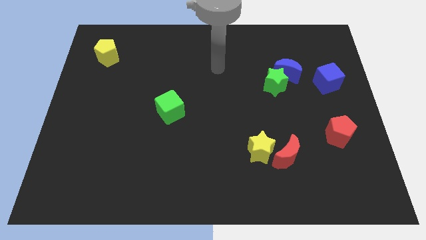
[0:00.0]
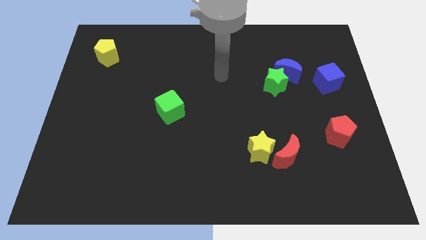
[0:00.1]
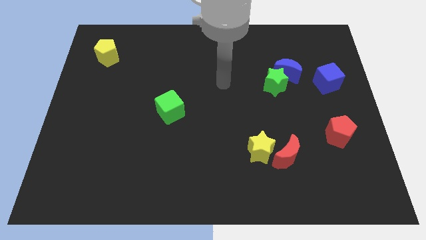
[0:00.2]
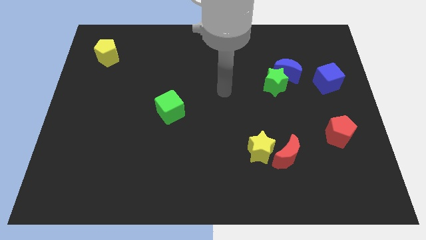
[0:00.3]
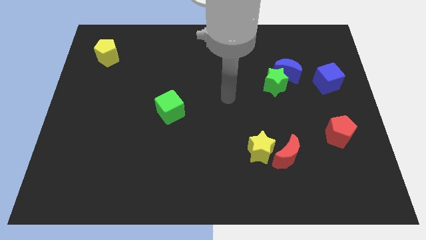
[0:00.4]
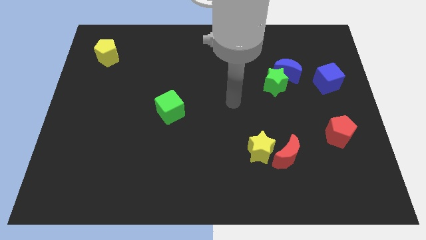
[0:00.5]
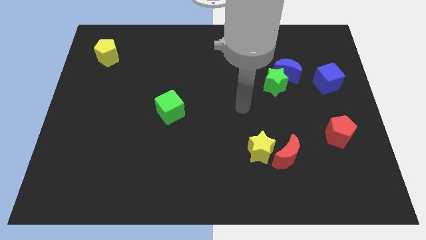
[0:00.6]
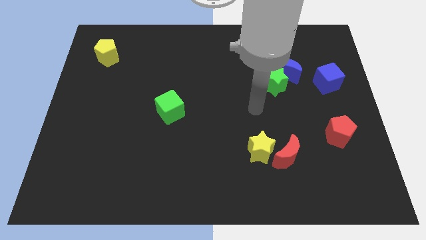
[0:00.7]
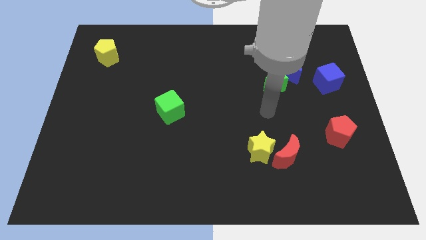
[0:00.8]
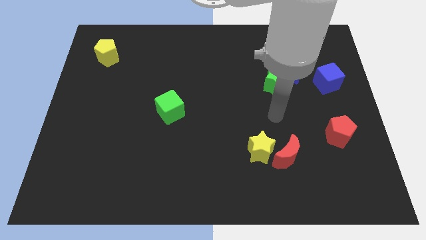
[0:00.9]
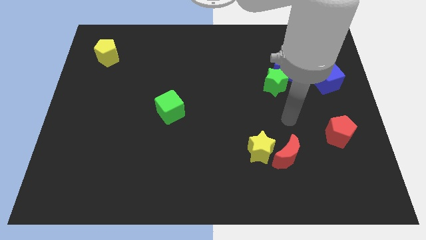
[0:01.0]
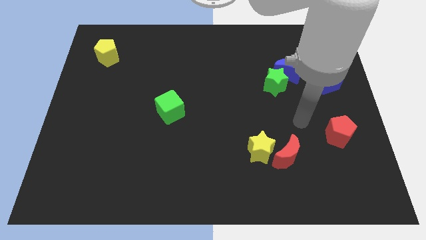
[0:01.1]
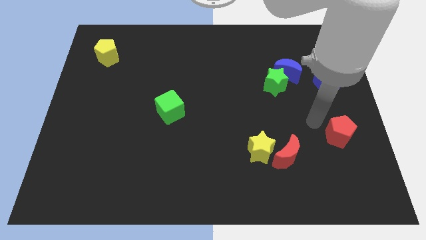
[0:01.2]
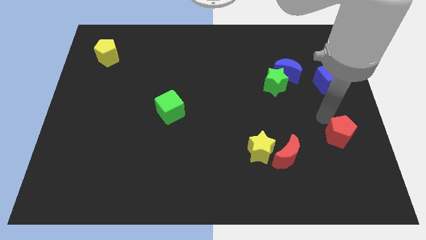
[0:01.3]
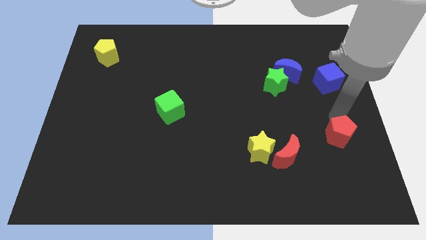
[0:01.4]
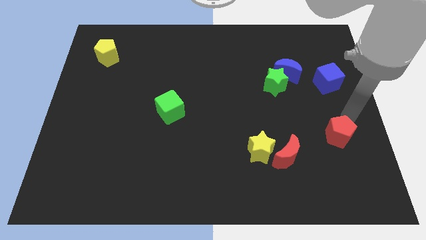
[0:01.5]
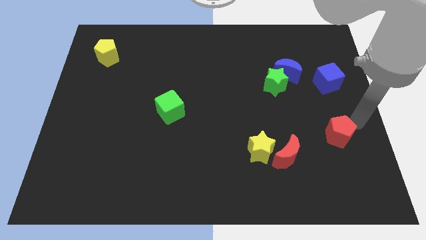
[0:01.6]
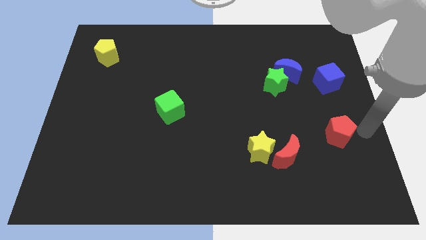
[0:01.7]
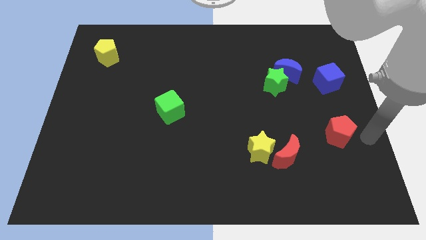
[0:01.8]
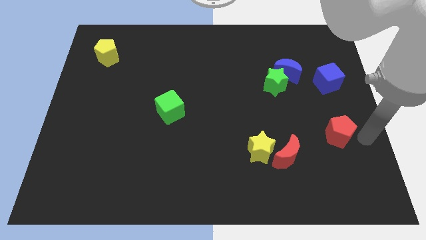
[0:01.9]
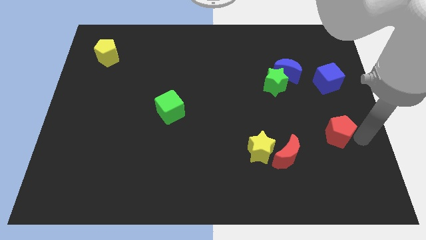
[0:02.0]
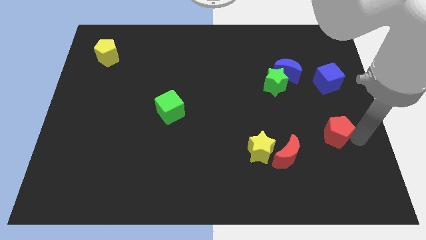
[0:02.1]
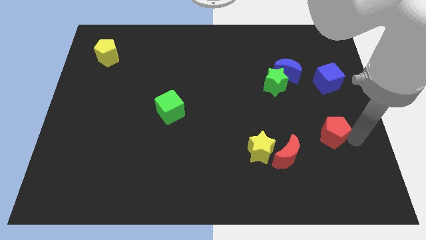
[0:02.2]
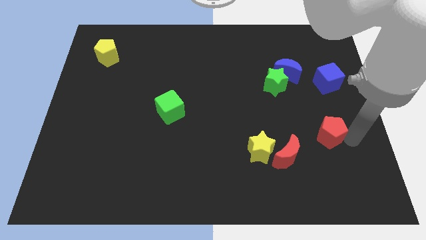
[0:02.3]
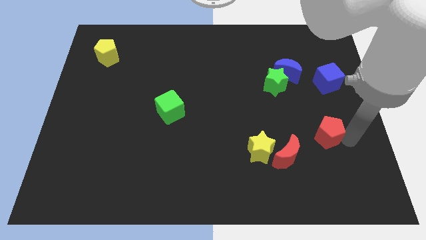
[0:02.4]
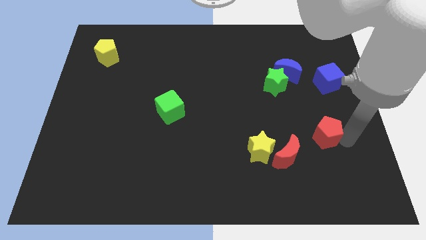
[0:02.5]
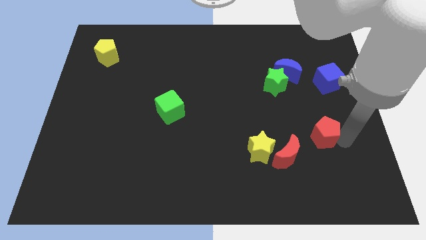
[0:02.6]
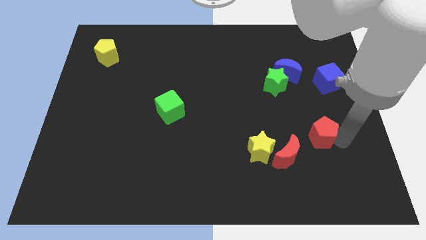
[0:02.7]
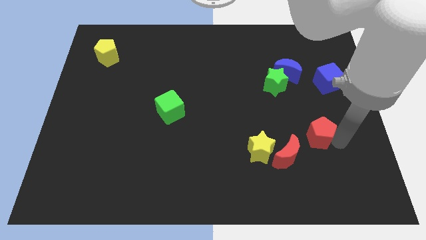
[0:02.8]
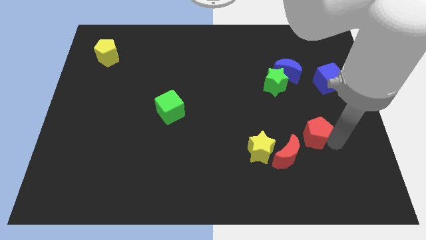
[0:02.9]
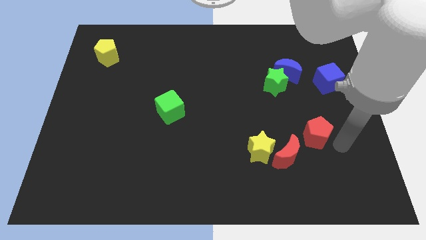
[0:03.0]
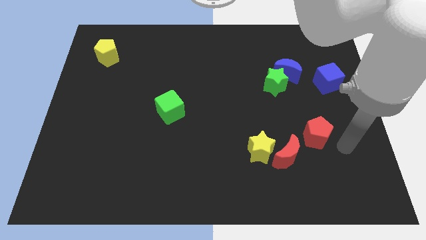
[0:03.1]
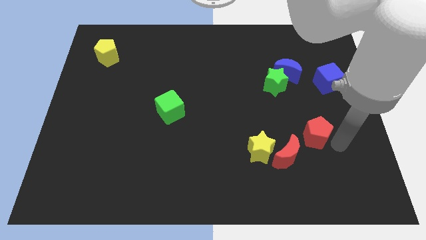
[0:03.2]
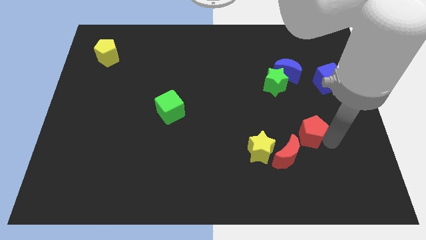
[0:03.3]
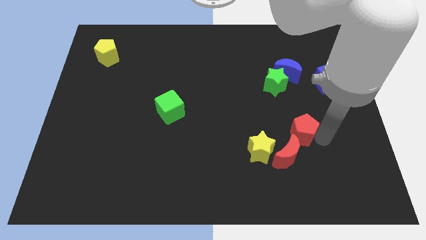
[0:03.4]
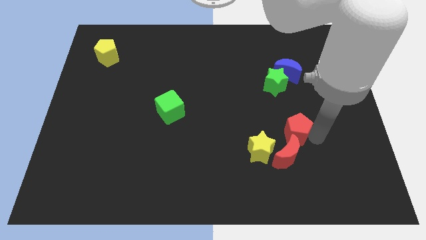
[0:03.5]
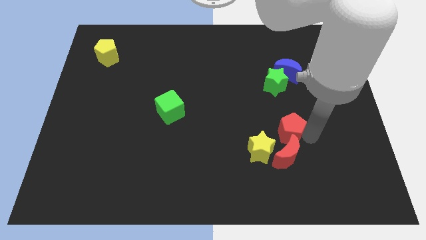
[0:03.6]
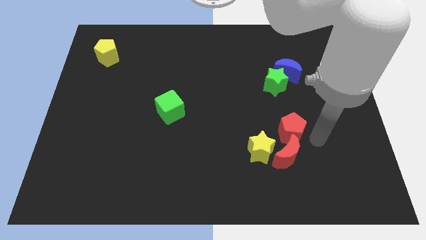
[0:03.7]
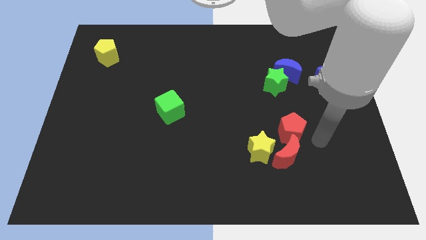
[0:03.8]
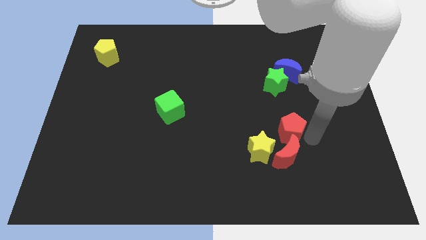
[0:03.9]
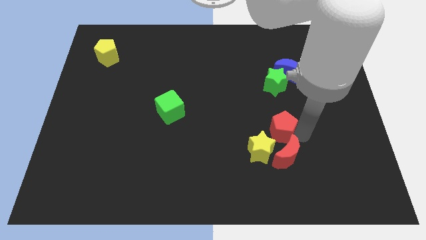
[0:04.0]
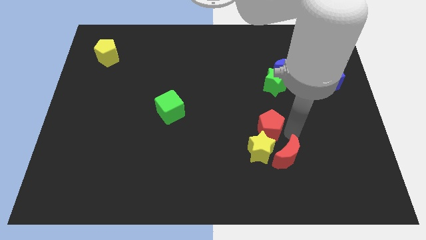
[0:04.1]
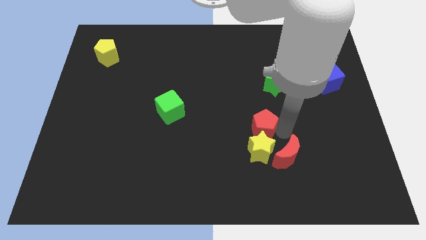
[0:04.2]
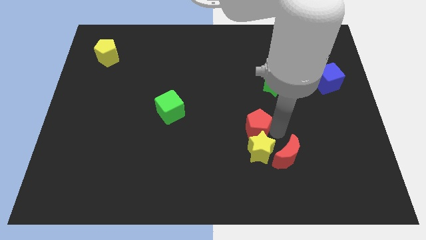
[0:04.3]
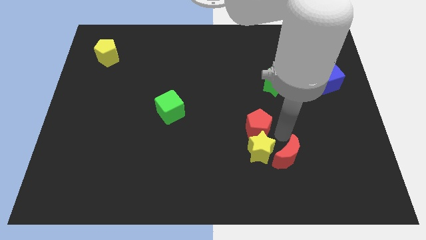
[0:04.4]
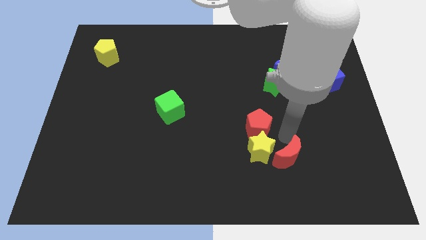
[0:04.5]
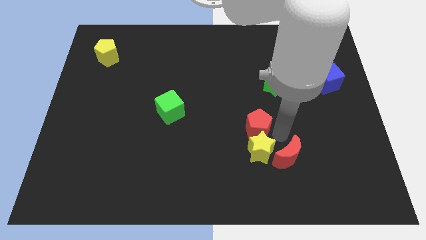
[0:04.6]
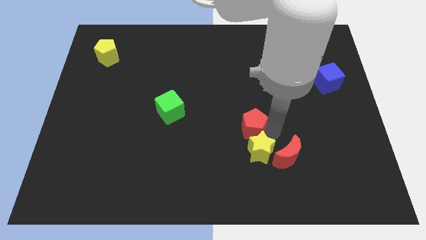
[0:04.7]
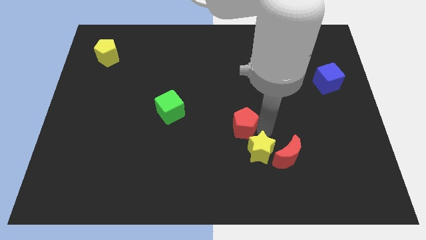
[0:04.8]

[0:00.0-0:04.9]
push the red pentagon left

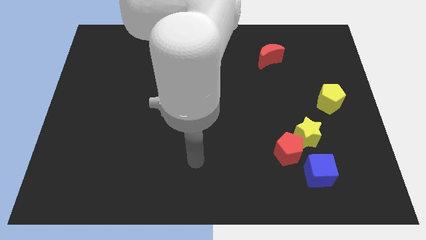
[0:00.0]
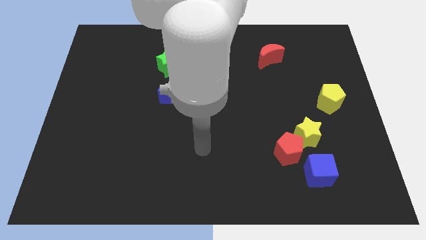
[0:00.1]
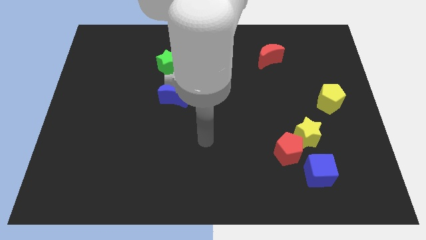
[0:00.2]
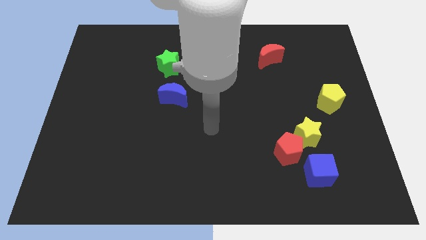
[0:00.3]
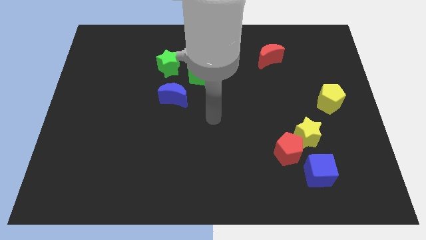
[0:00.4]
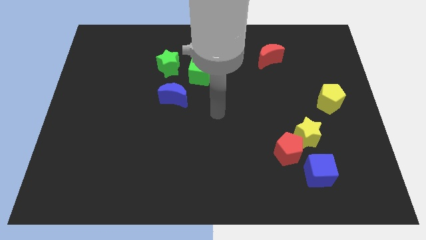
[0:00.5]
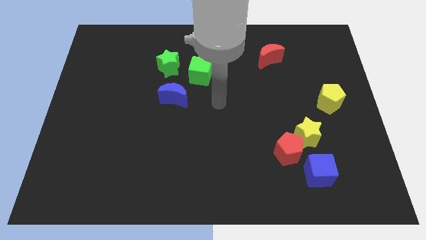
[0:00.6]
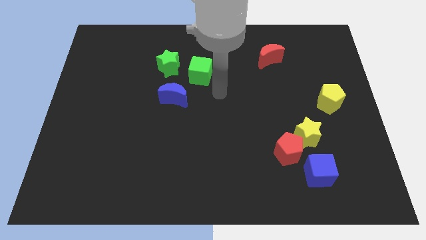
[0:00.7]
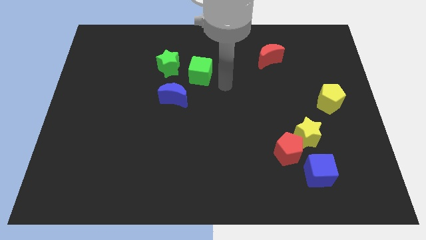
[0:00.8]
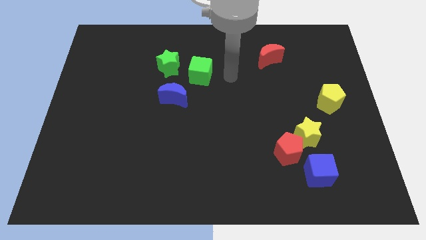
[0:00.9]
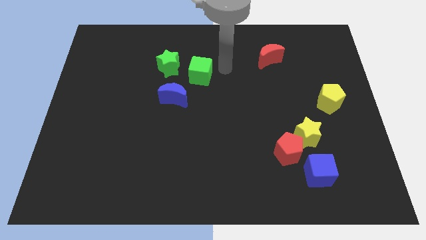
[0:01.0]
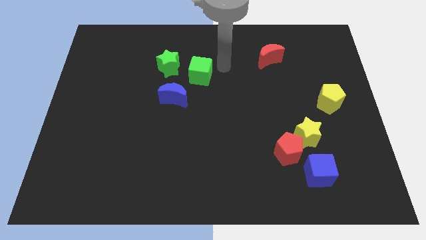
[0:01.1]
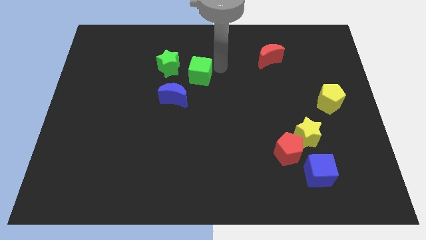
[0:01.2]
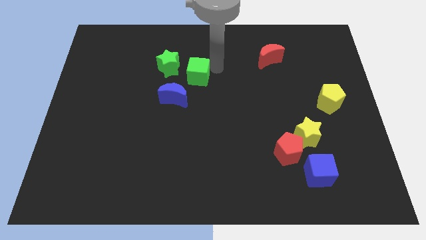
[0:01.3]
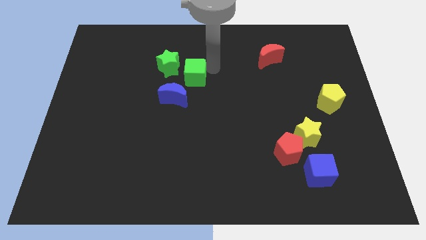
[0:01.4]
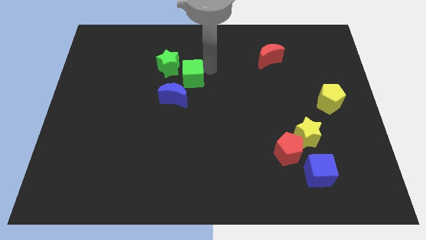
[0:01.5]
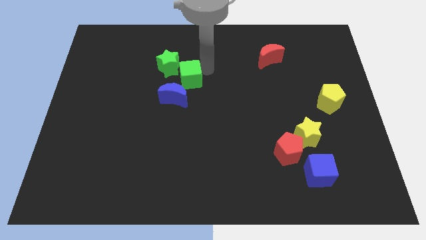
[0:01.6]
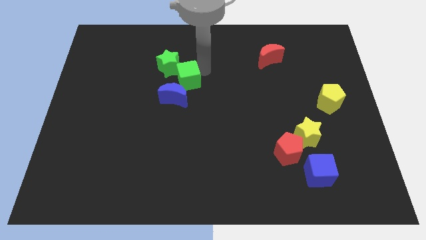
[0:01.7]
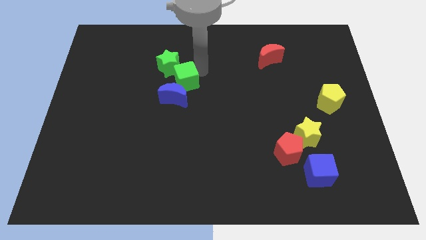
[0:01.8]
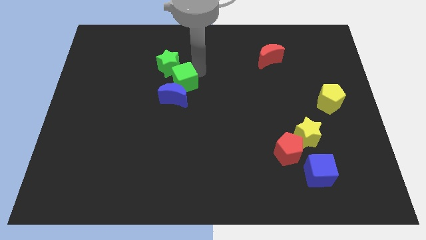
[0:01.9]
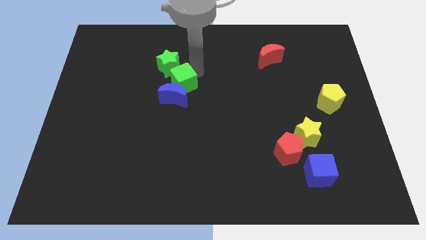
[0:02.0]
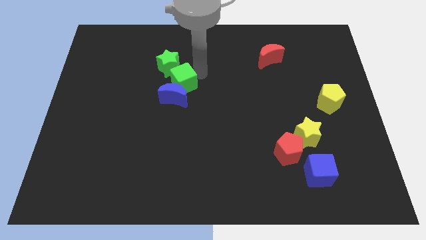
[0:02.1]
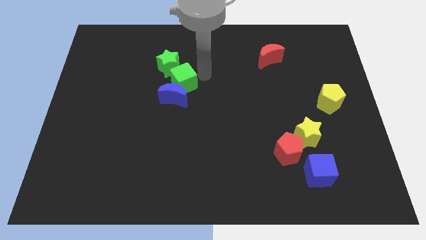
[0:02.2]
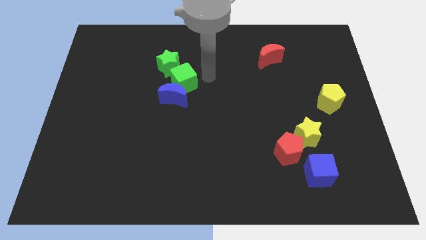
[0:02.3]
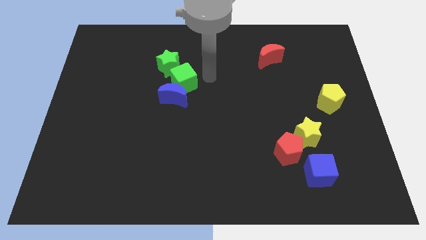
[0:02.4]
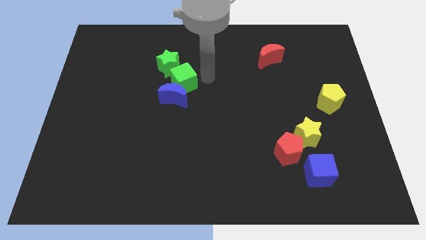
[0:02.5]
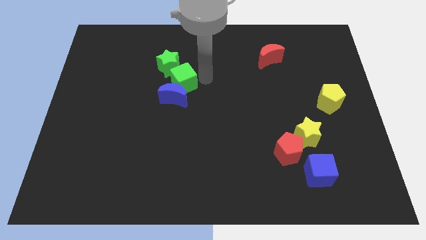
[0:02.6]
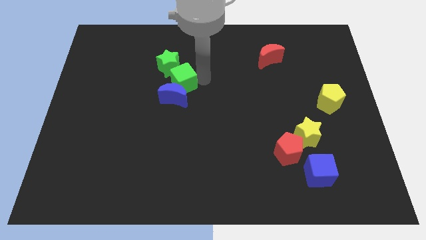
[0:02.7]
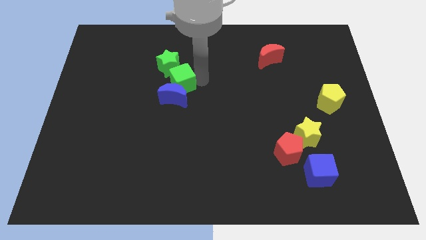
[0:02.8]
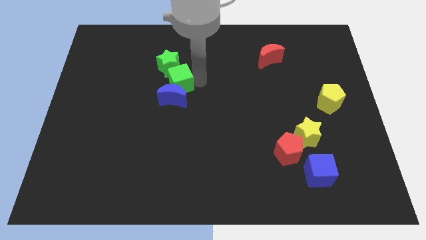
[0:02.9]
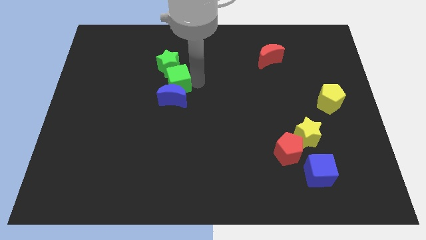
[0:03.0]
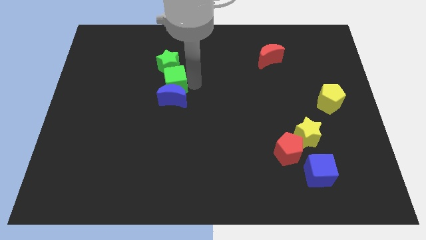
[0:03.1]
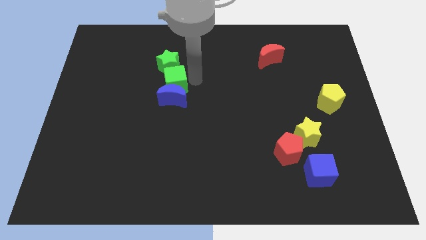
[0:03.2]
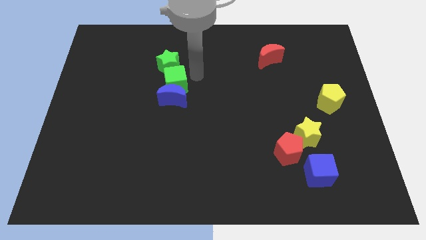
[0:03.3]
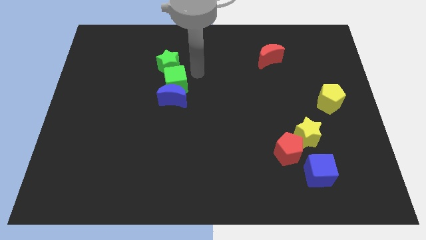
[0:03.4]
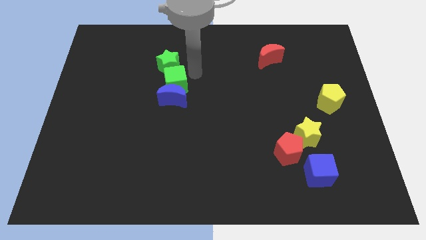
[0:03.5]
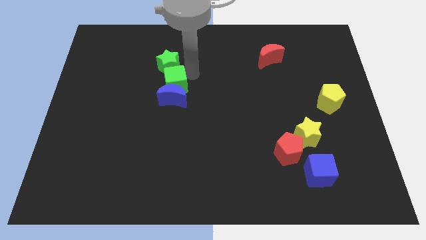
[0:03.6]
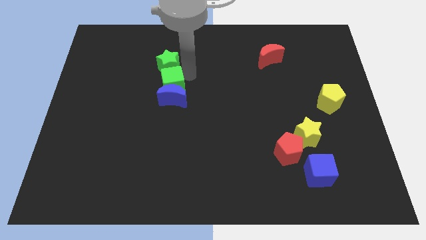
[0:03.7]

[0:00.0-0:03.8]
push the green cube a little down and then to the left
